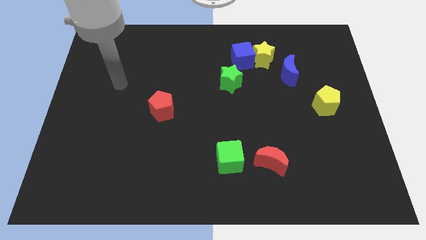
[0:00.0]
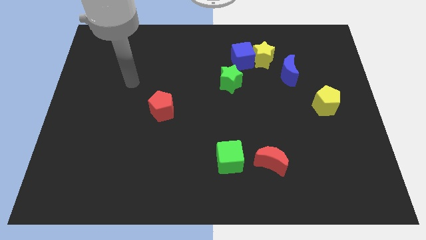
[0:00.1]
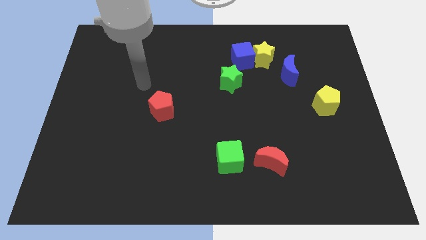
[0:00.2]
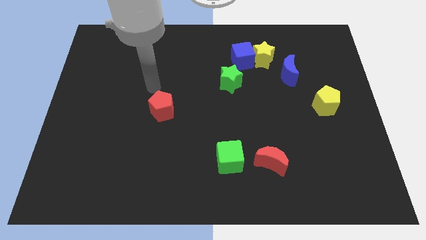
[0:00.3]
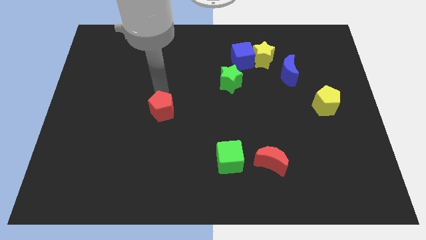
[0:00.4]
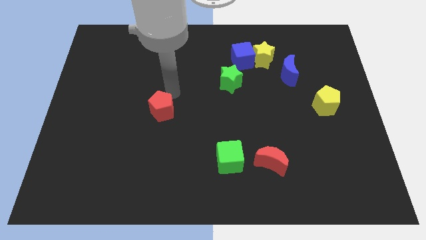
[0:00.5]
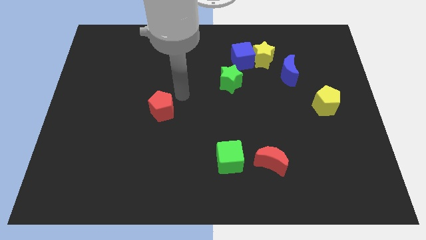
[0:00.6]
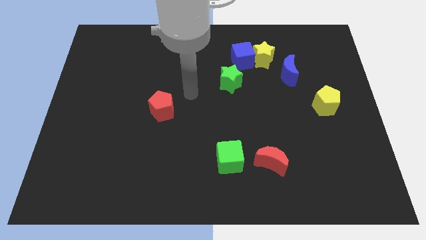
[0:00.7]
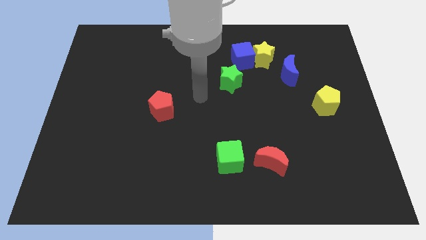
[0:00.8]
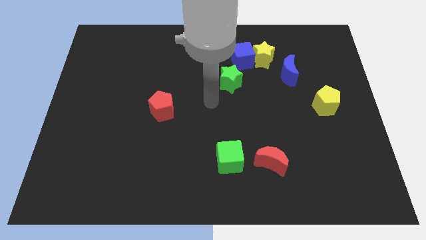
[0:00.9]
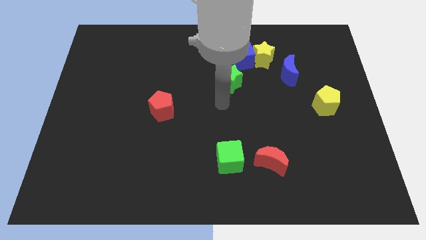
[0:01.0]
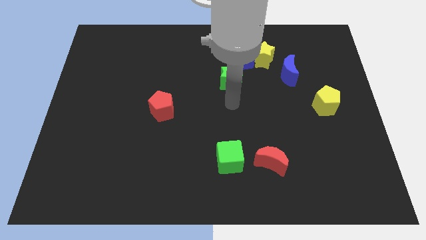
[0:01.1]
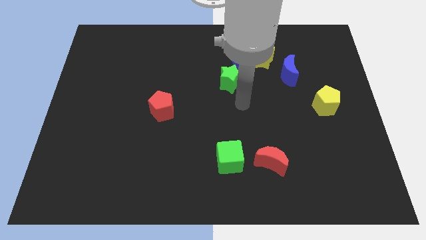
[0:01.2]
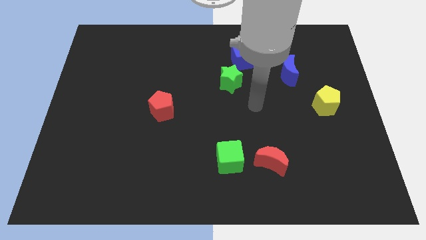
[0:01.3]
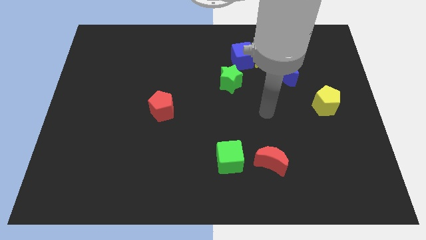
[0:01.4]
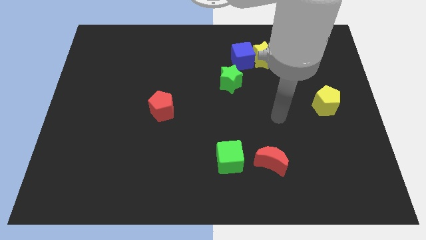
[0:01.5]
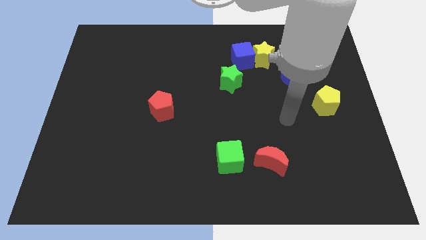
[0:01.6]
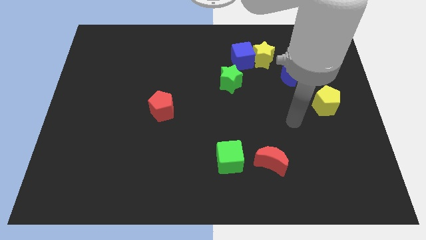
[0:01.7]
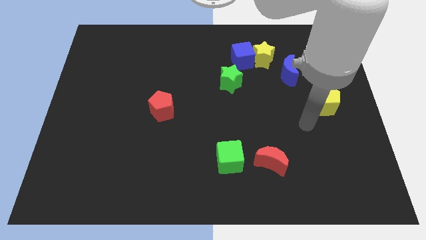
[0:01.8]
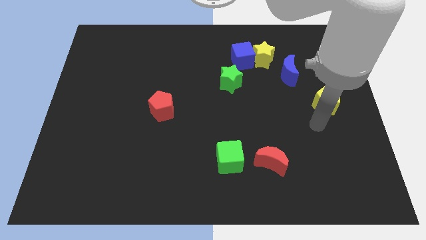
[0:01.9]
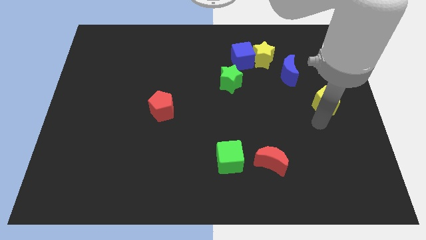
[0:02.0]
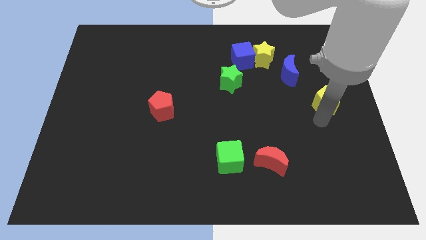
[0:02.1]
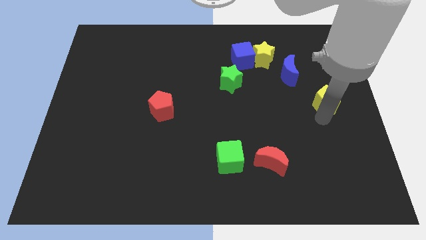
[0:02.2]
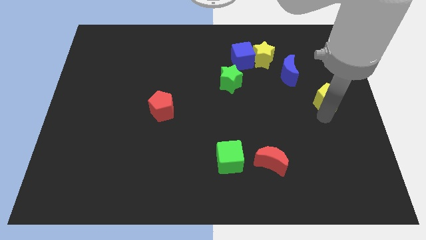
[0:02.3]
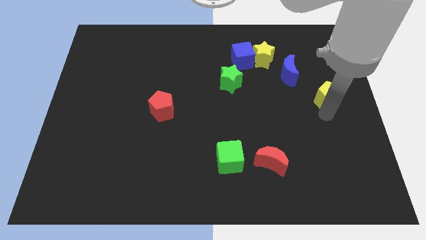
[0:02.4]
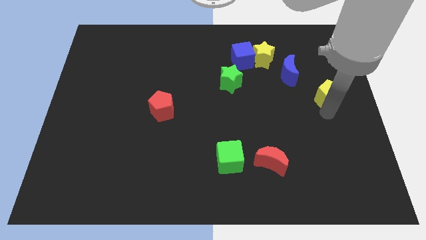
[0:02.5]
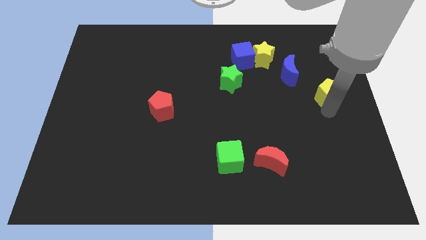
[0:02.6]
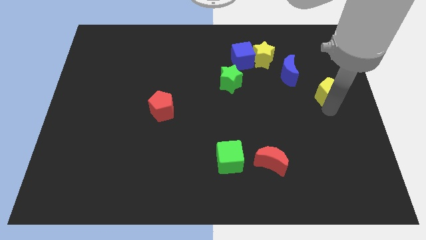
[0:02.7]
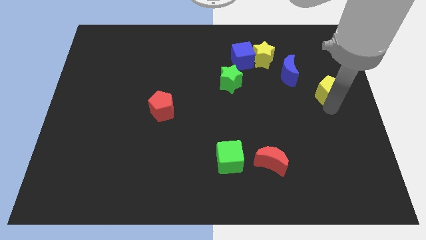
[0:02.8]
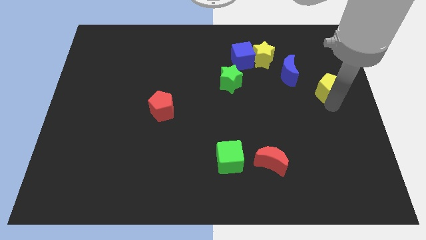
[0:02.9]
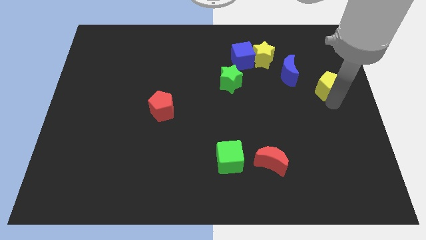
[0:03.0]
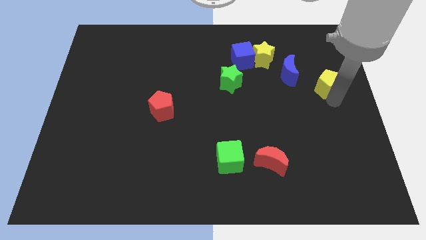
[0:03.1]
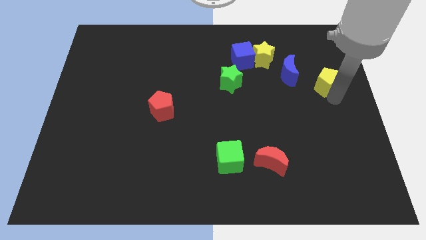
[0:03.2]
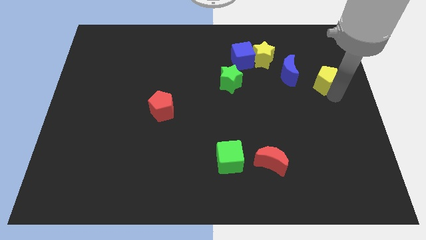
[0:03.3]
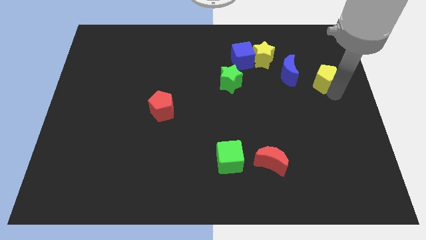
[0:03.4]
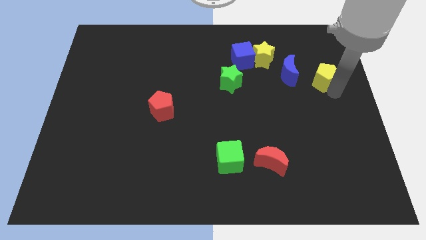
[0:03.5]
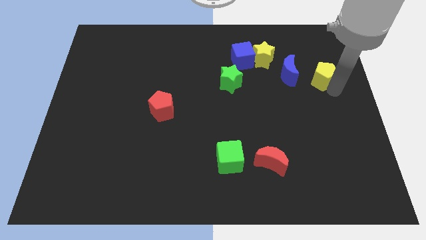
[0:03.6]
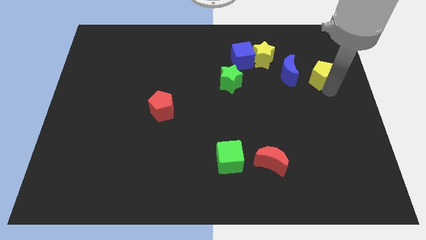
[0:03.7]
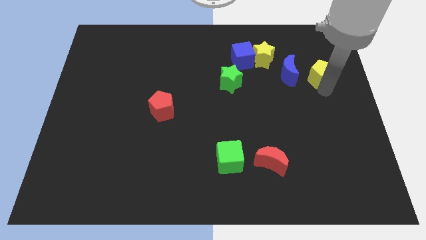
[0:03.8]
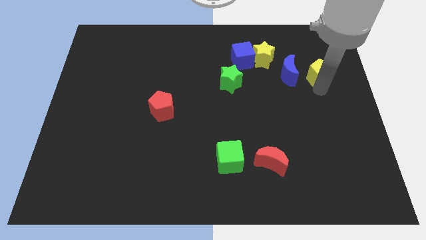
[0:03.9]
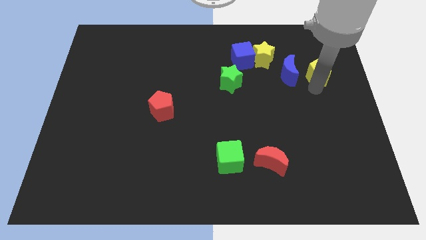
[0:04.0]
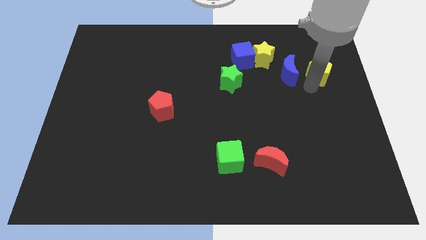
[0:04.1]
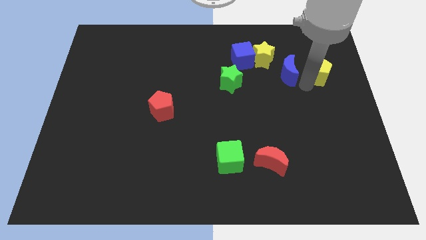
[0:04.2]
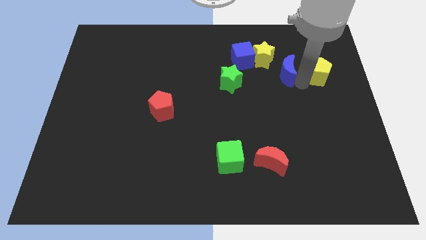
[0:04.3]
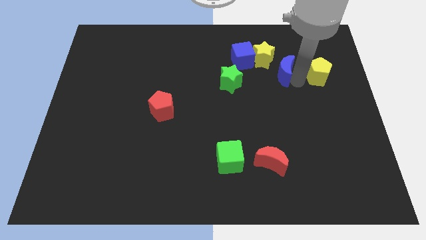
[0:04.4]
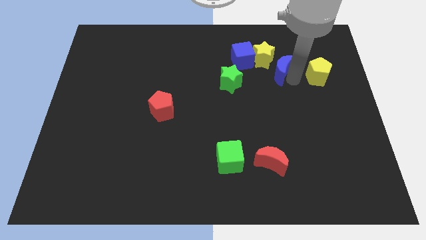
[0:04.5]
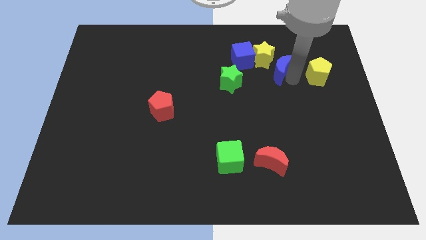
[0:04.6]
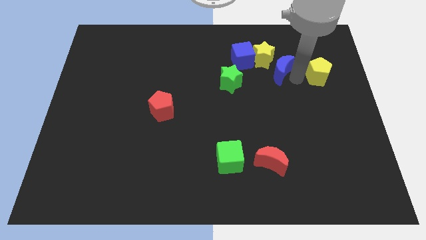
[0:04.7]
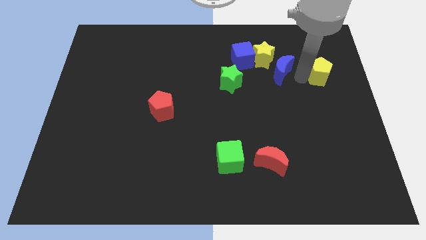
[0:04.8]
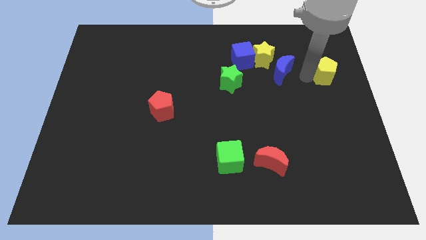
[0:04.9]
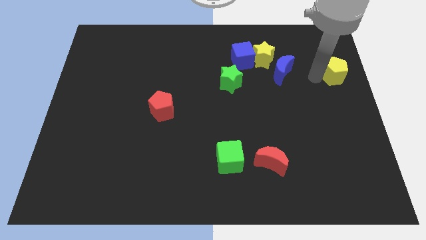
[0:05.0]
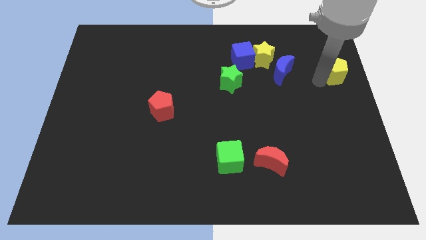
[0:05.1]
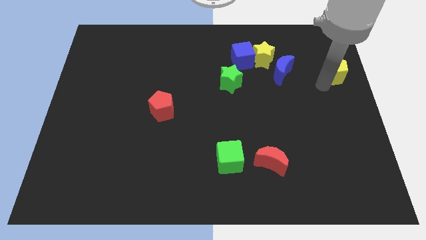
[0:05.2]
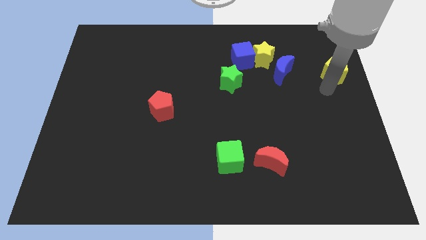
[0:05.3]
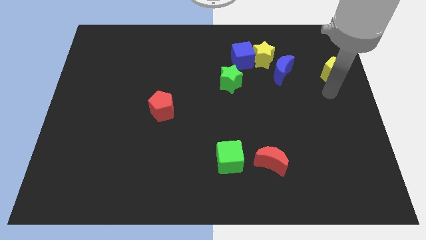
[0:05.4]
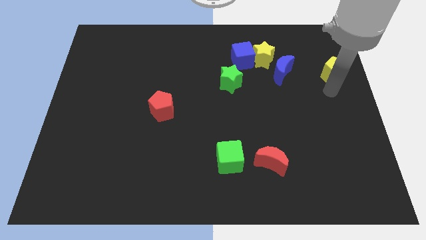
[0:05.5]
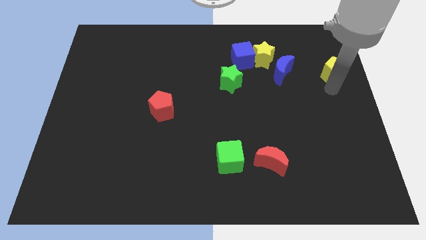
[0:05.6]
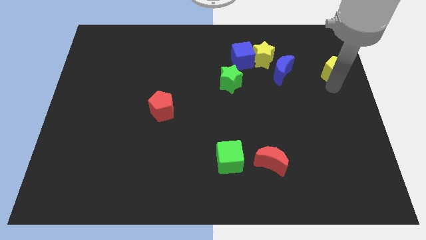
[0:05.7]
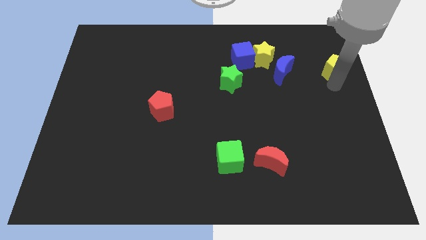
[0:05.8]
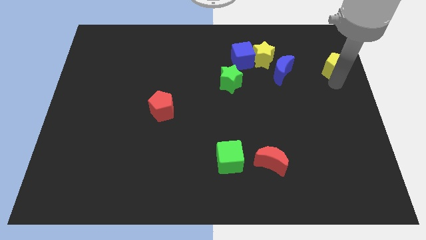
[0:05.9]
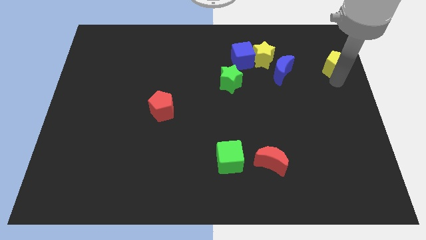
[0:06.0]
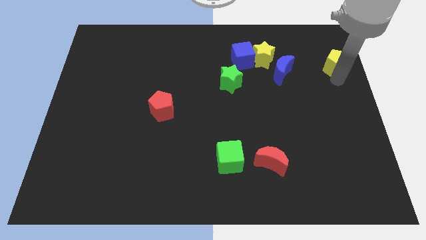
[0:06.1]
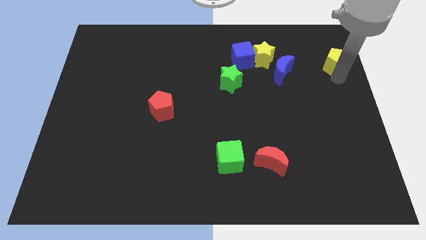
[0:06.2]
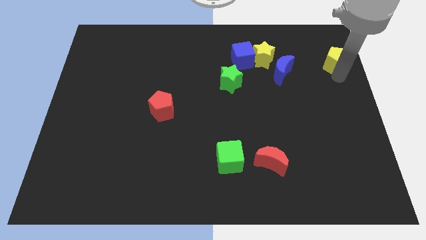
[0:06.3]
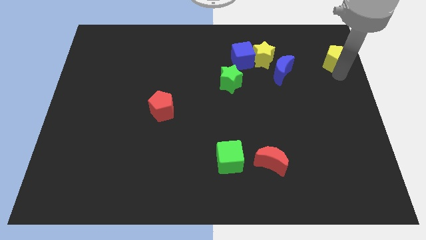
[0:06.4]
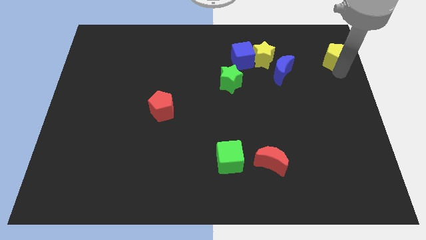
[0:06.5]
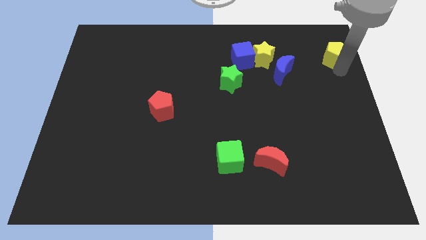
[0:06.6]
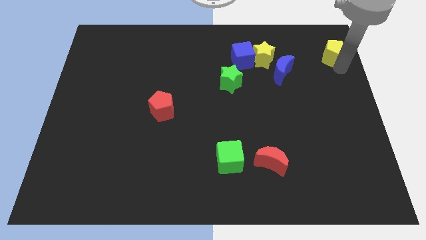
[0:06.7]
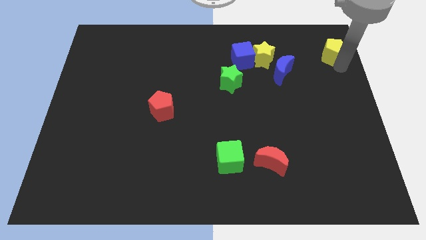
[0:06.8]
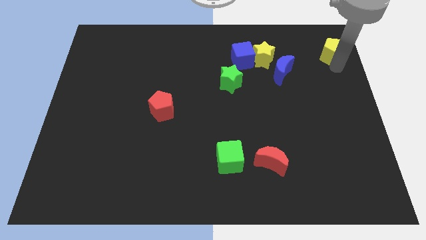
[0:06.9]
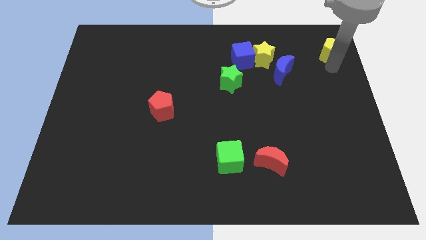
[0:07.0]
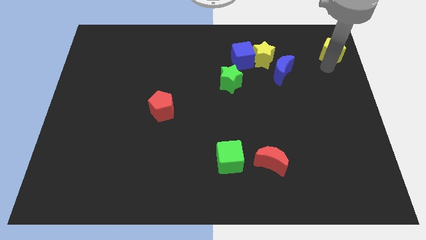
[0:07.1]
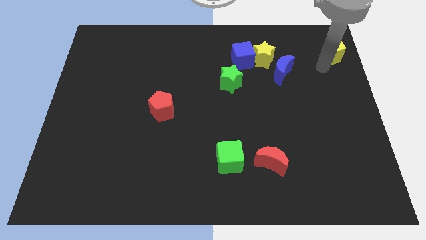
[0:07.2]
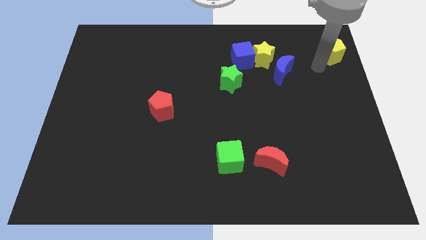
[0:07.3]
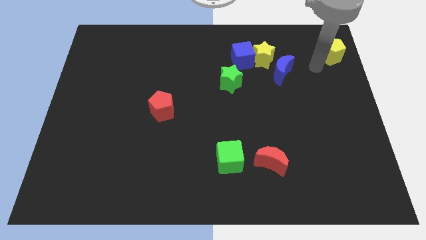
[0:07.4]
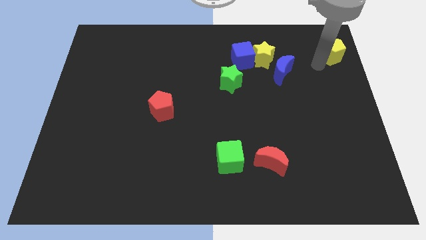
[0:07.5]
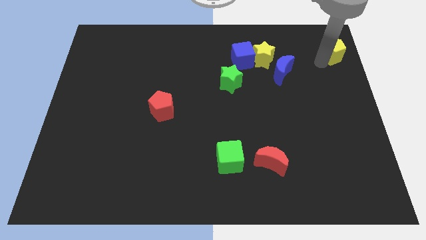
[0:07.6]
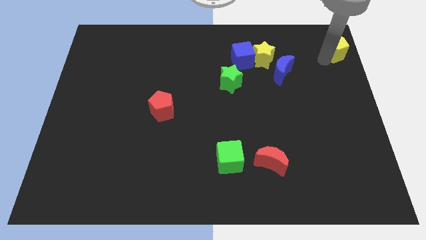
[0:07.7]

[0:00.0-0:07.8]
put the yellow pentagon to the upper right corner
